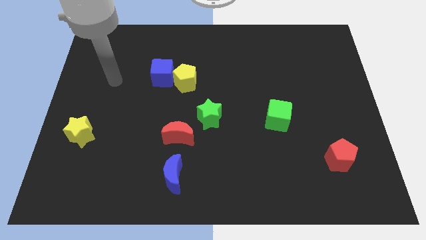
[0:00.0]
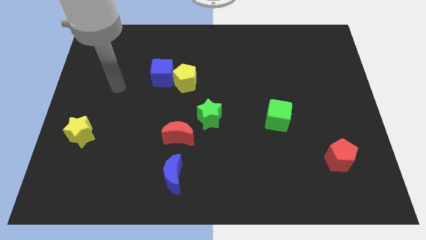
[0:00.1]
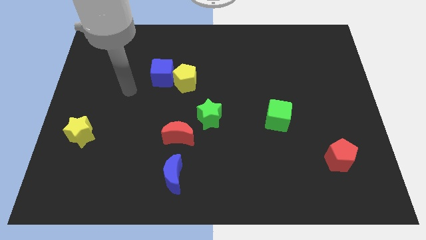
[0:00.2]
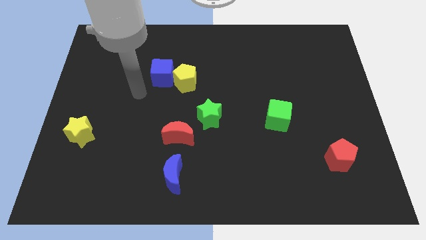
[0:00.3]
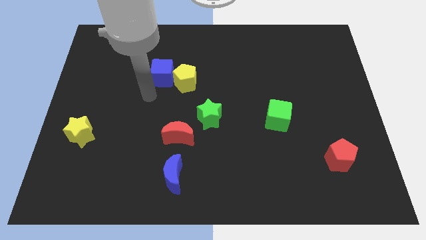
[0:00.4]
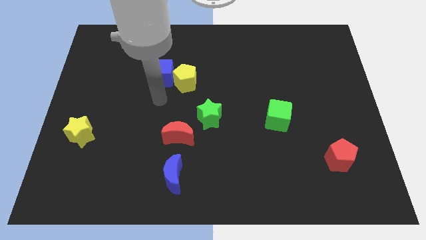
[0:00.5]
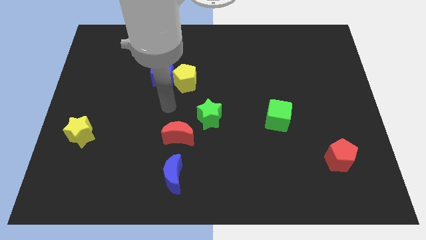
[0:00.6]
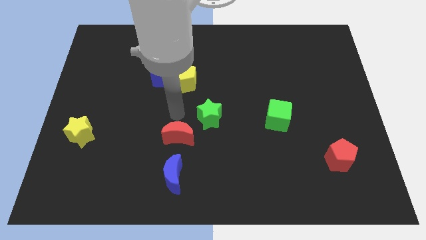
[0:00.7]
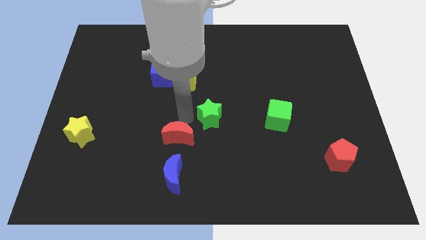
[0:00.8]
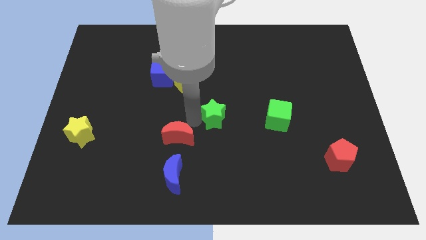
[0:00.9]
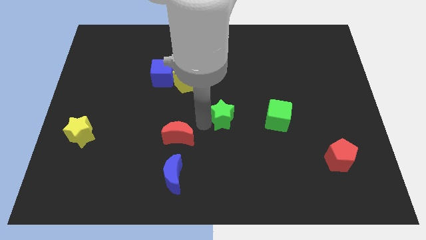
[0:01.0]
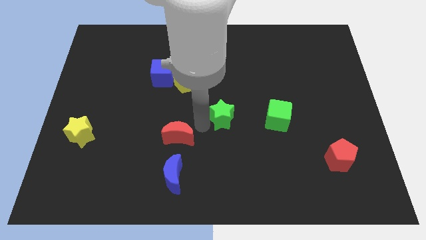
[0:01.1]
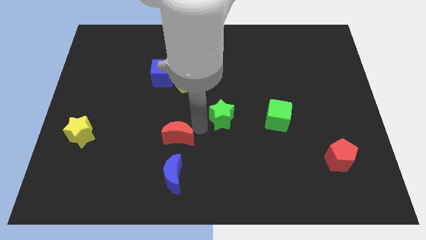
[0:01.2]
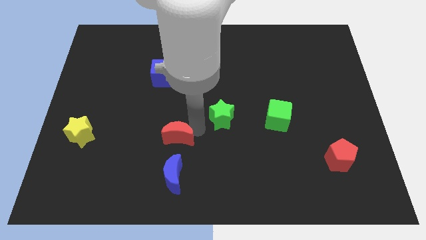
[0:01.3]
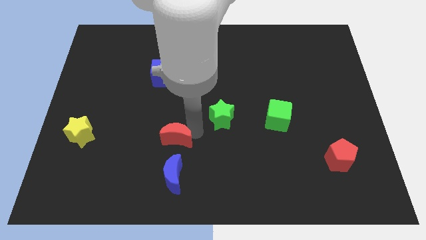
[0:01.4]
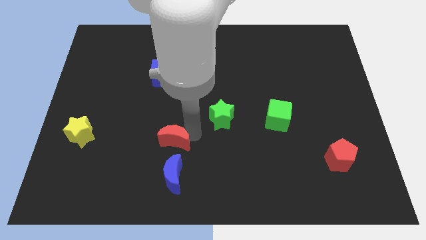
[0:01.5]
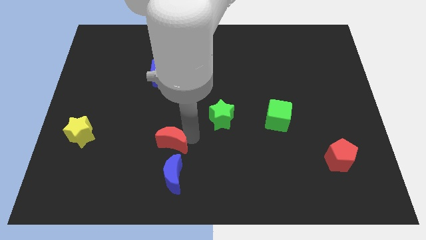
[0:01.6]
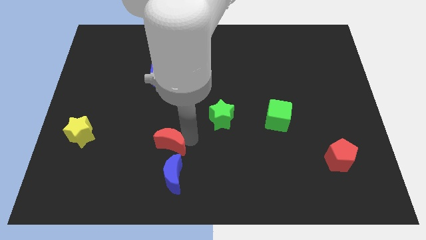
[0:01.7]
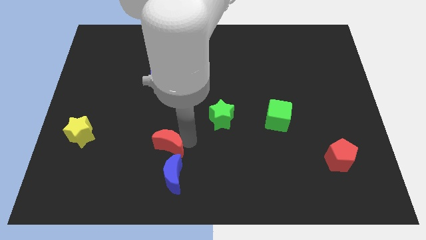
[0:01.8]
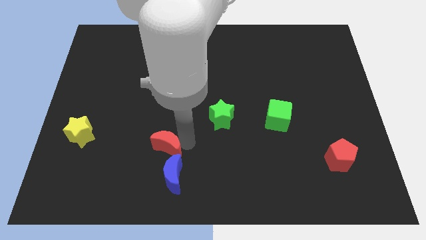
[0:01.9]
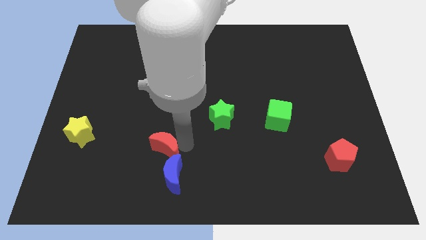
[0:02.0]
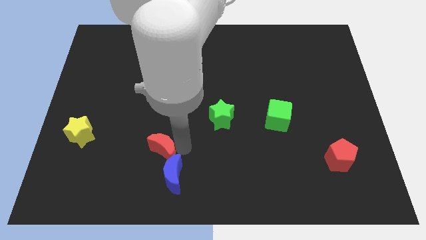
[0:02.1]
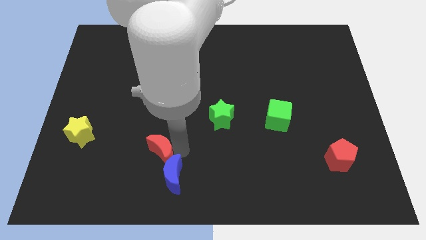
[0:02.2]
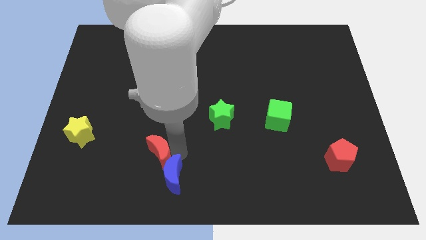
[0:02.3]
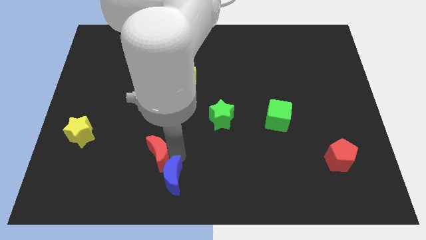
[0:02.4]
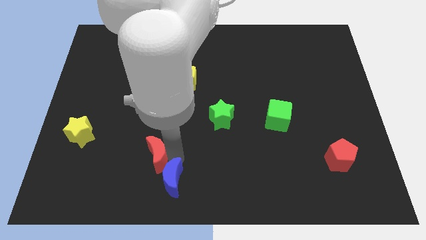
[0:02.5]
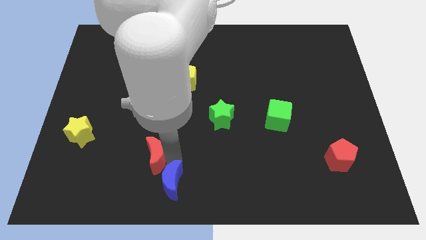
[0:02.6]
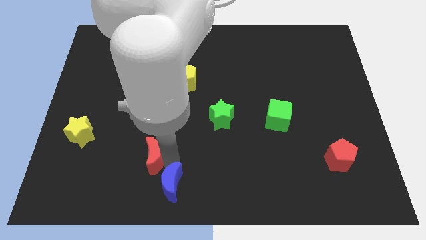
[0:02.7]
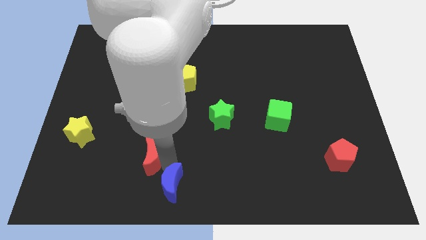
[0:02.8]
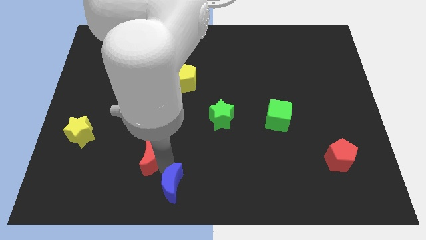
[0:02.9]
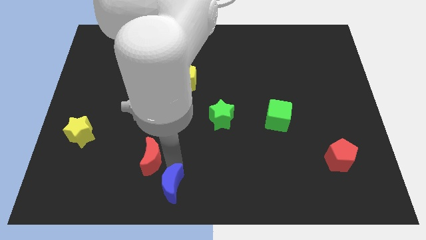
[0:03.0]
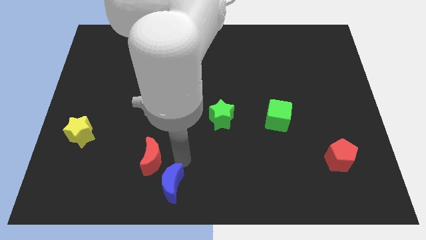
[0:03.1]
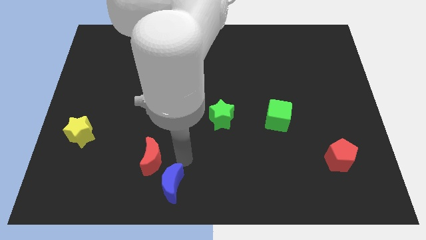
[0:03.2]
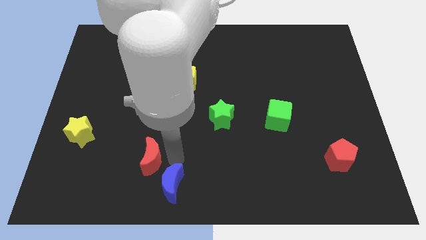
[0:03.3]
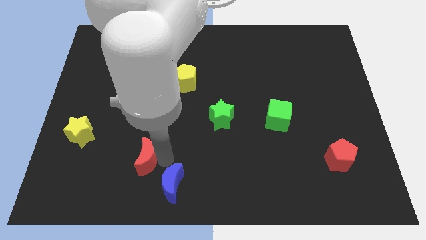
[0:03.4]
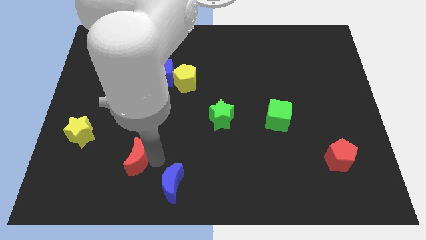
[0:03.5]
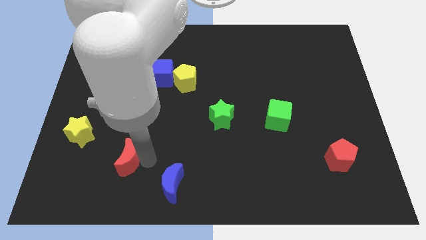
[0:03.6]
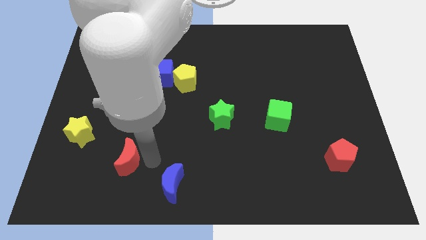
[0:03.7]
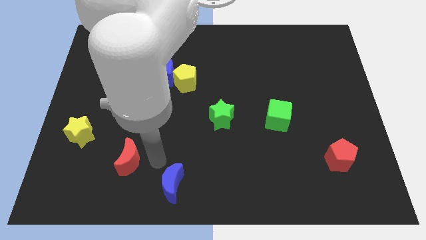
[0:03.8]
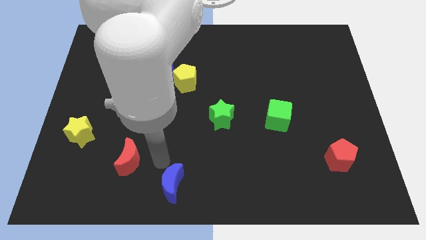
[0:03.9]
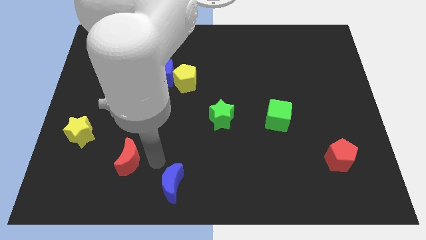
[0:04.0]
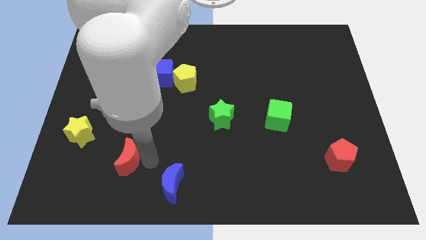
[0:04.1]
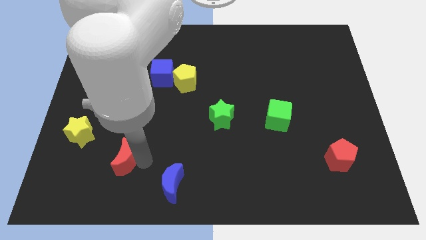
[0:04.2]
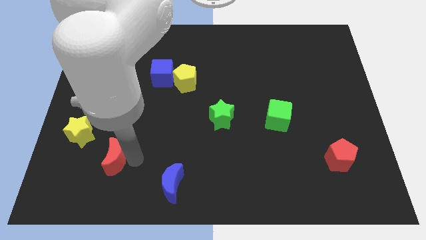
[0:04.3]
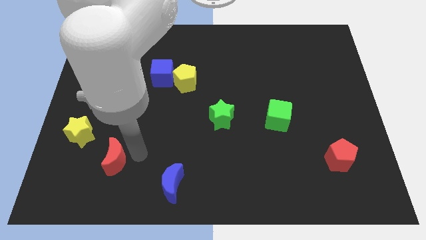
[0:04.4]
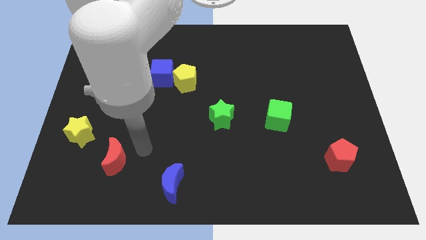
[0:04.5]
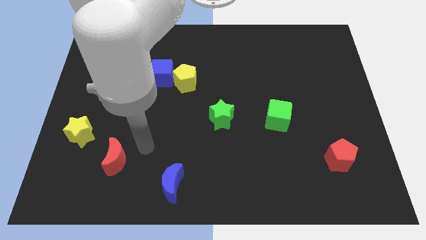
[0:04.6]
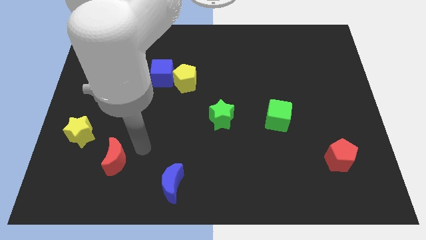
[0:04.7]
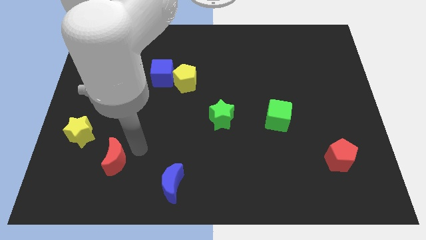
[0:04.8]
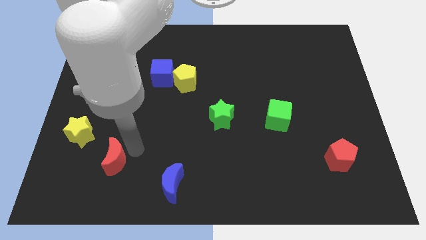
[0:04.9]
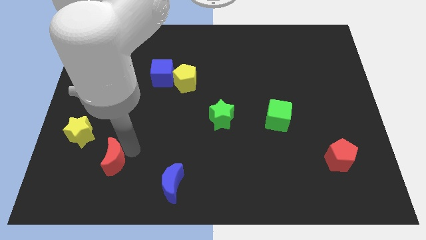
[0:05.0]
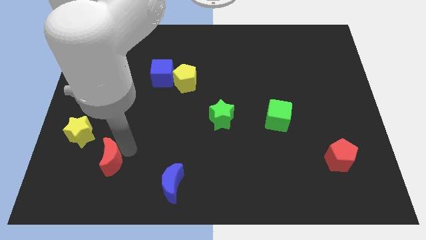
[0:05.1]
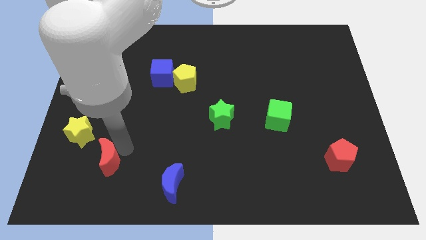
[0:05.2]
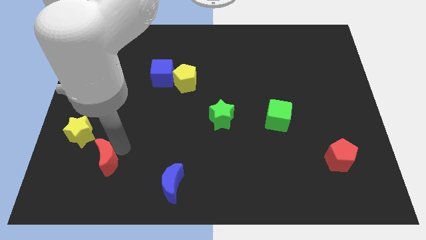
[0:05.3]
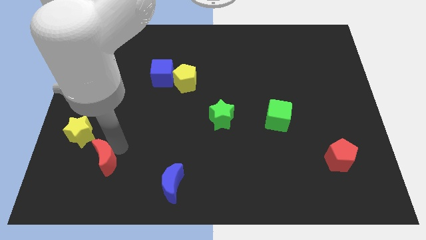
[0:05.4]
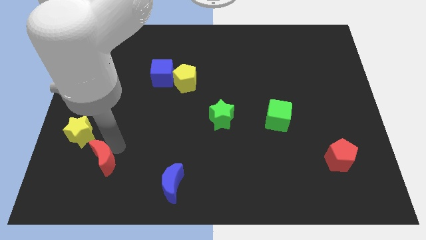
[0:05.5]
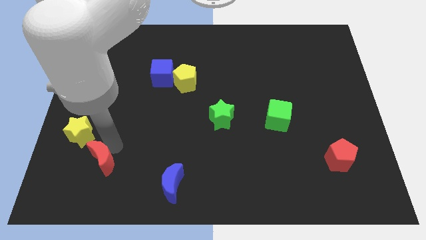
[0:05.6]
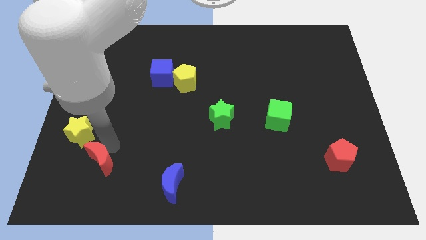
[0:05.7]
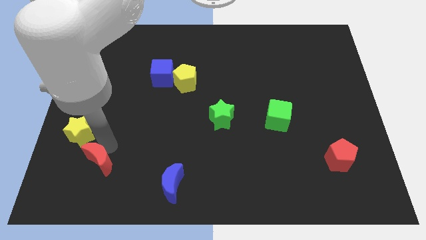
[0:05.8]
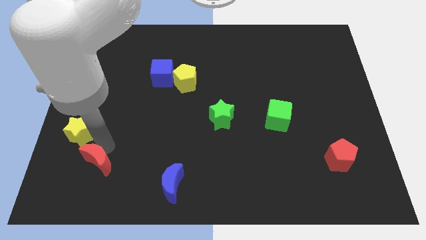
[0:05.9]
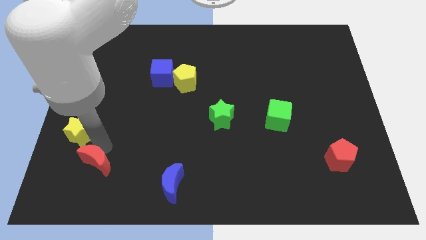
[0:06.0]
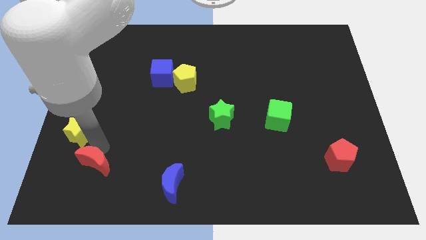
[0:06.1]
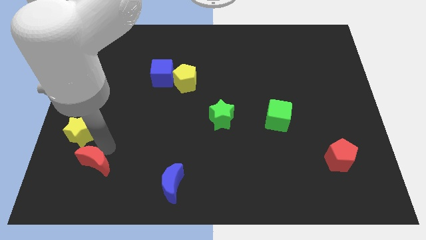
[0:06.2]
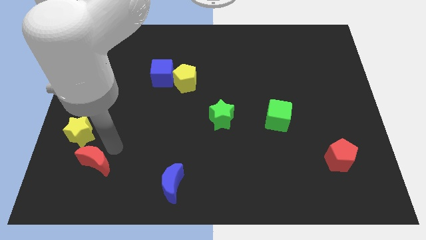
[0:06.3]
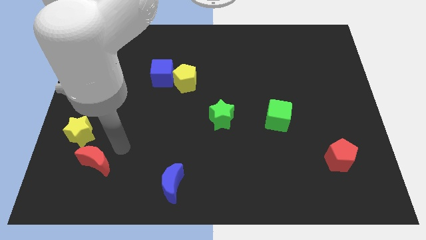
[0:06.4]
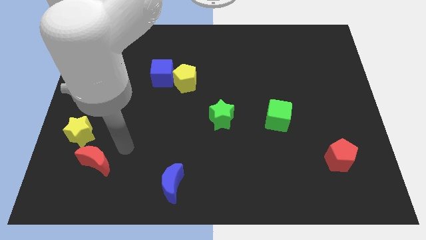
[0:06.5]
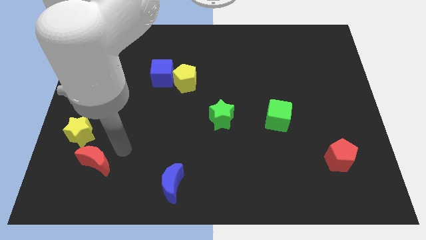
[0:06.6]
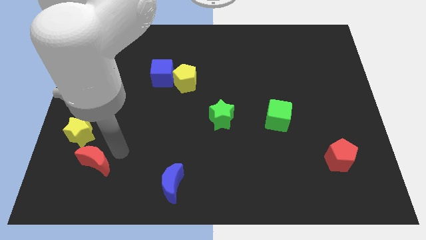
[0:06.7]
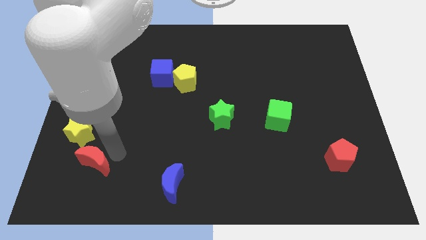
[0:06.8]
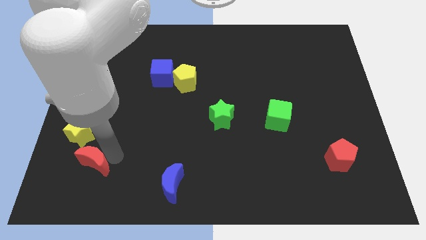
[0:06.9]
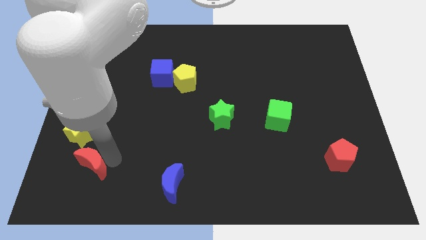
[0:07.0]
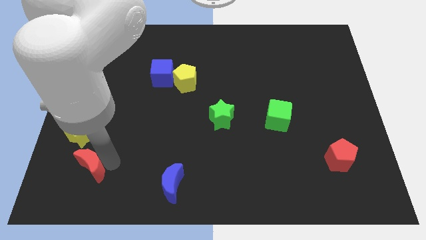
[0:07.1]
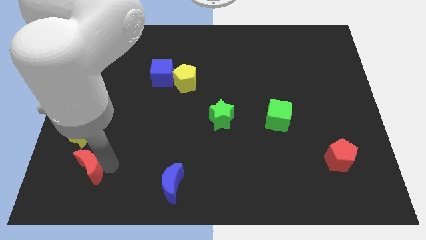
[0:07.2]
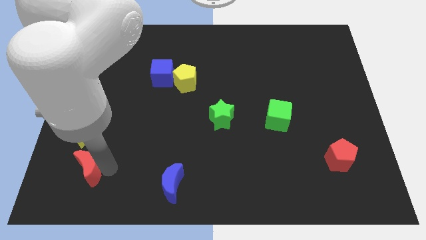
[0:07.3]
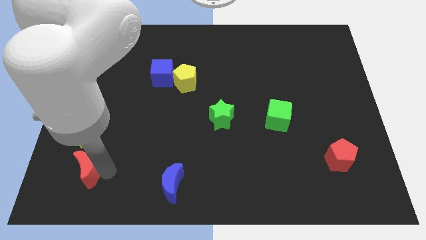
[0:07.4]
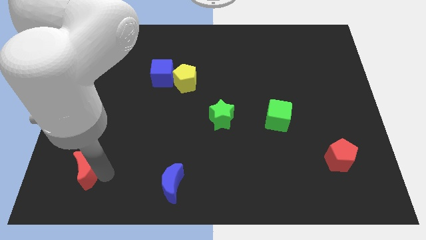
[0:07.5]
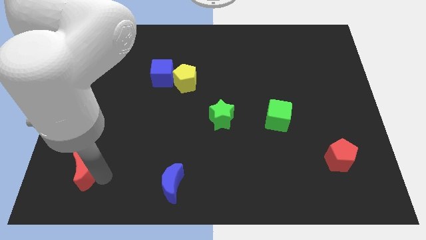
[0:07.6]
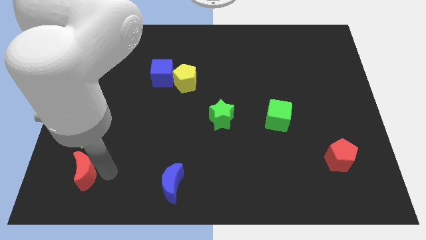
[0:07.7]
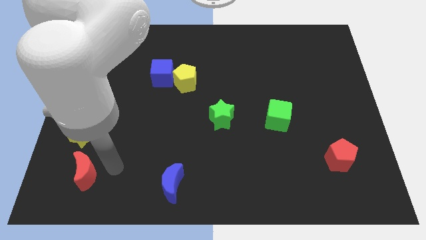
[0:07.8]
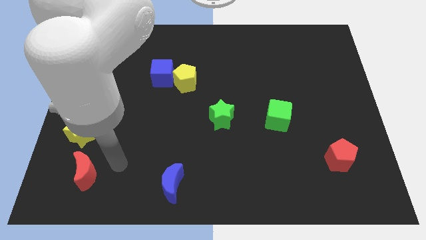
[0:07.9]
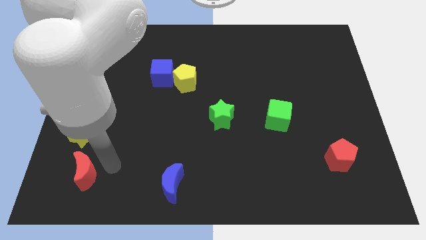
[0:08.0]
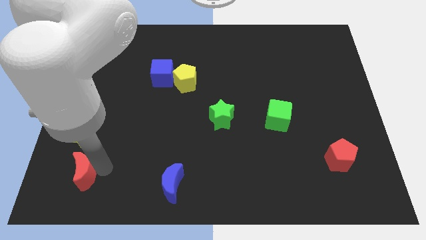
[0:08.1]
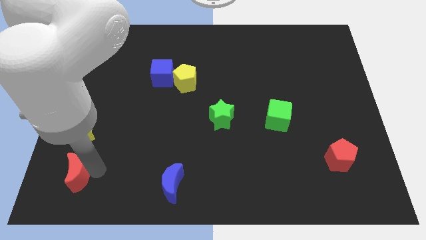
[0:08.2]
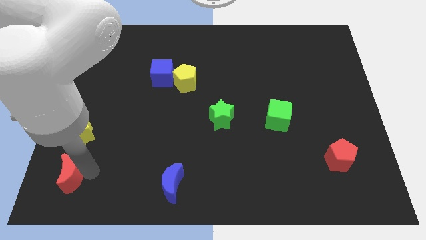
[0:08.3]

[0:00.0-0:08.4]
push the red moon to the lower left corner
